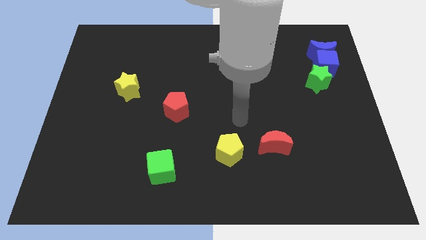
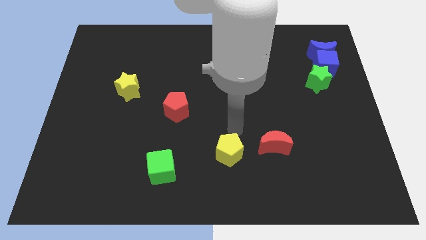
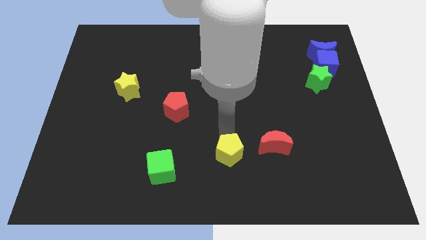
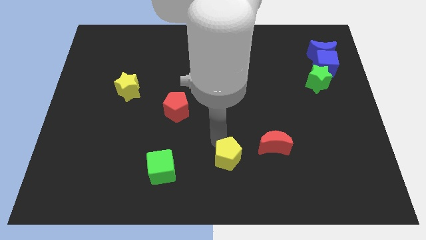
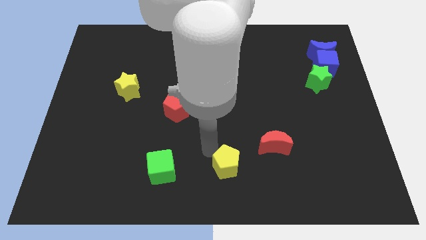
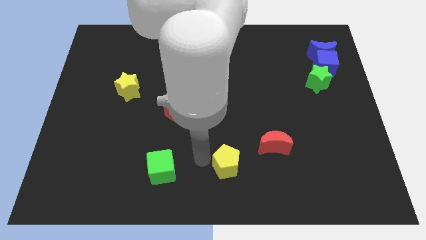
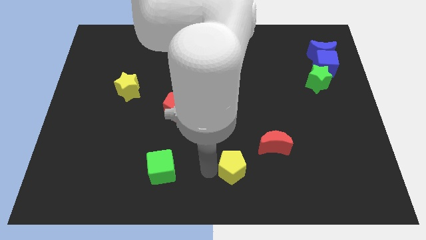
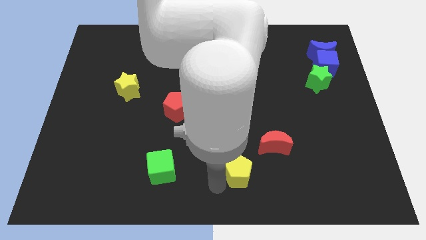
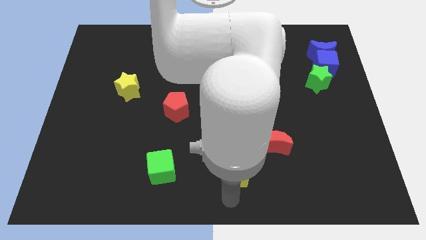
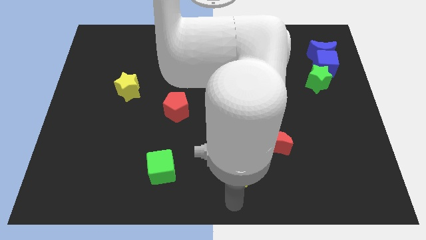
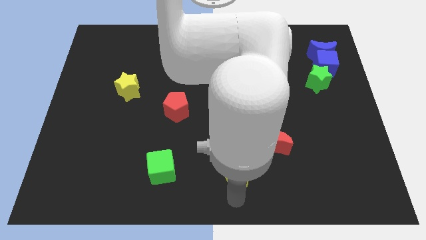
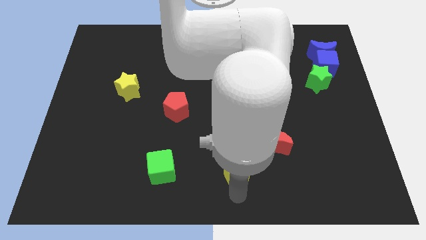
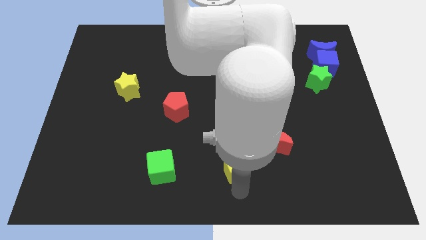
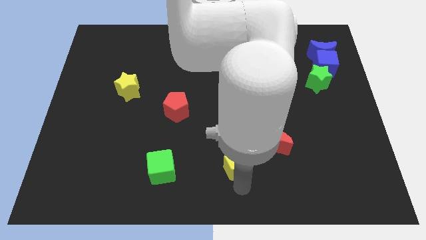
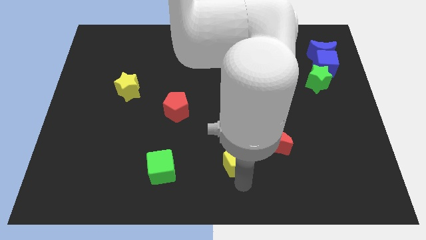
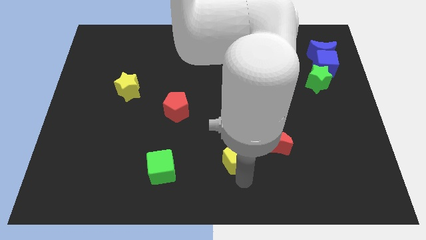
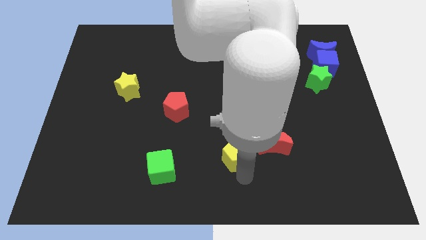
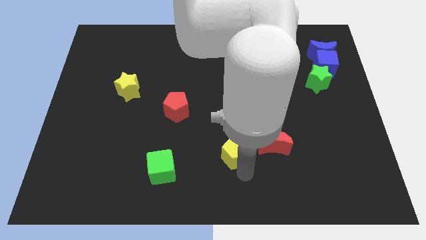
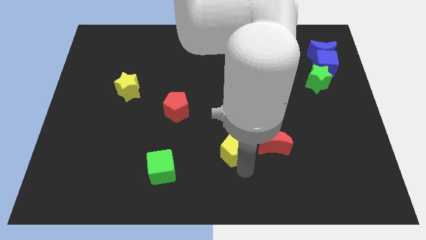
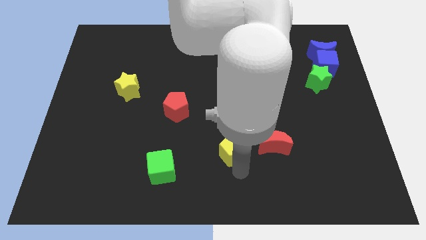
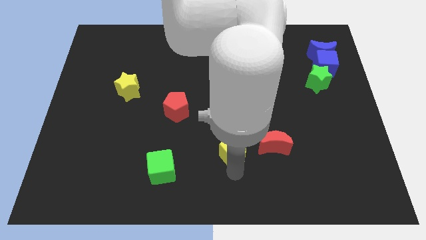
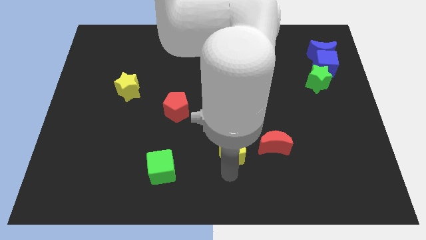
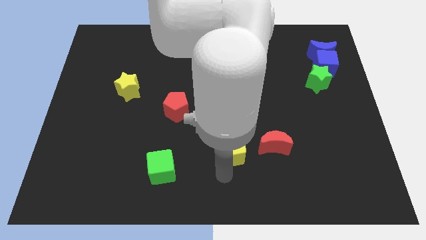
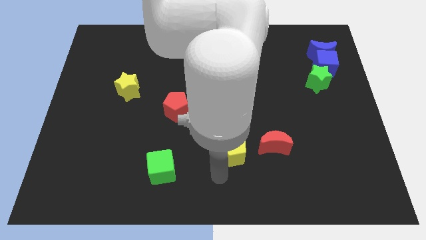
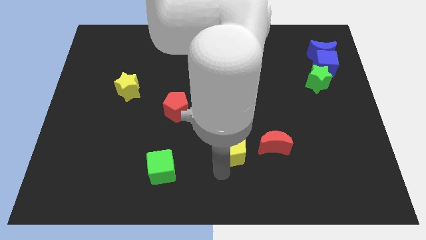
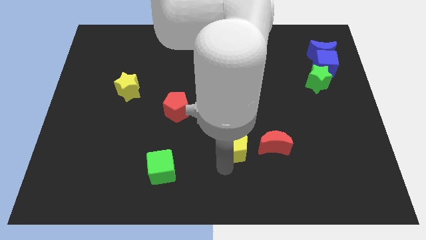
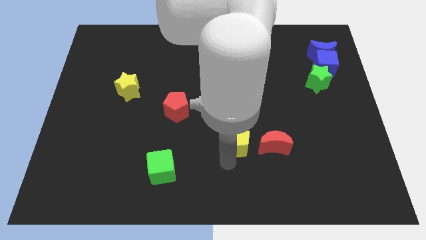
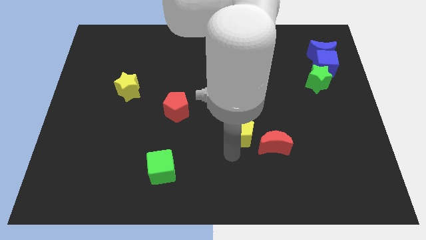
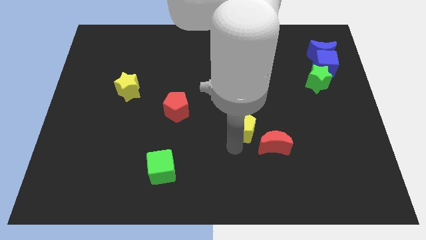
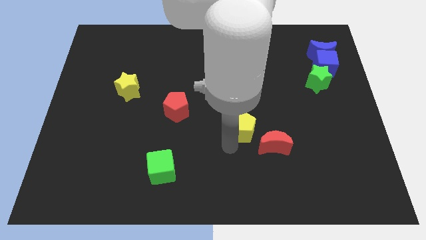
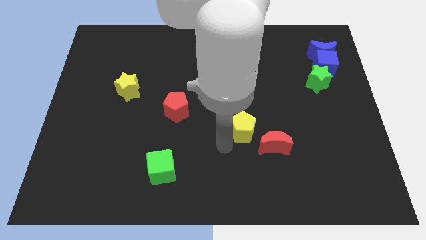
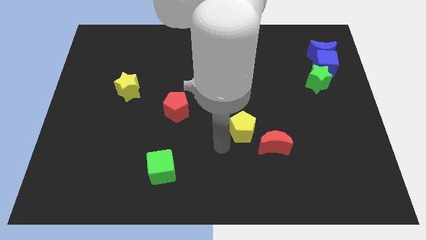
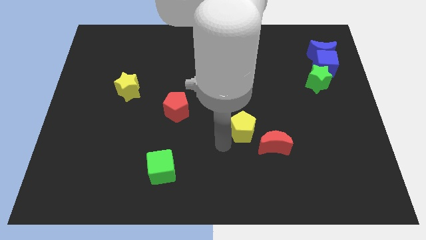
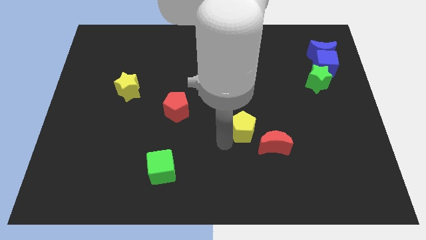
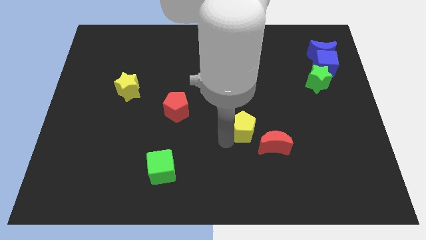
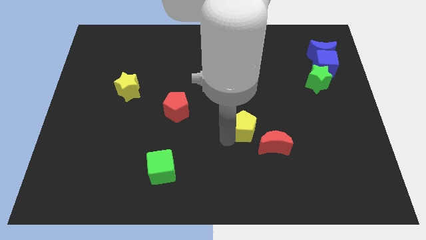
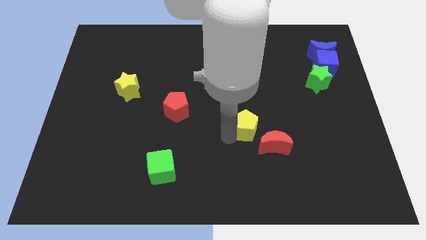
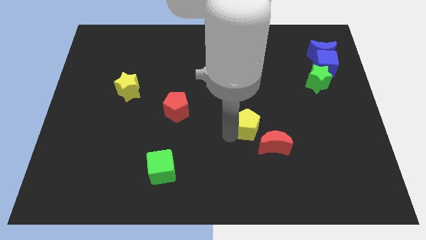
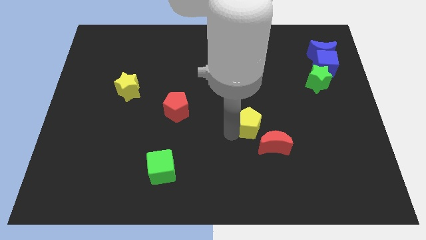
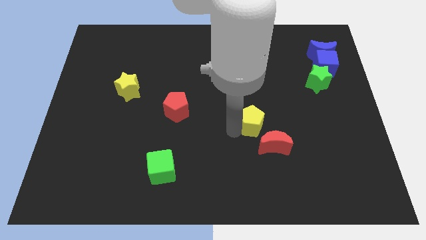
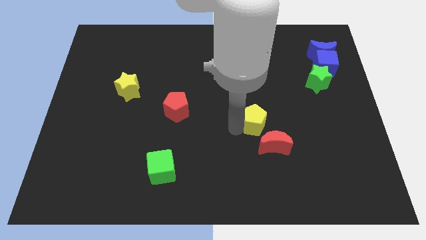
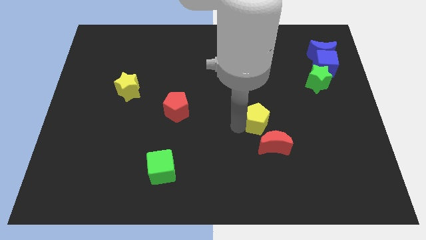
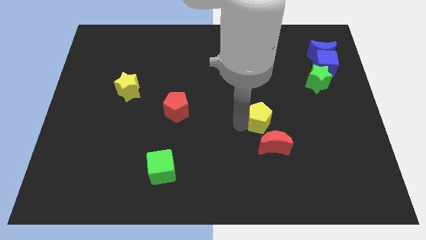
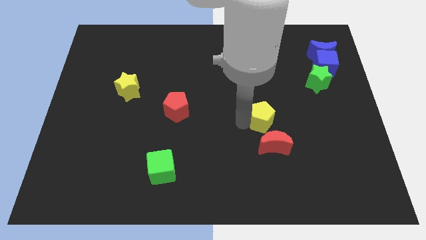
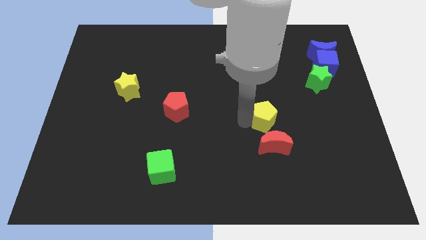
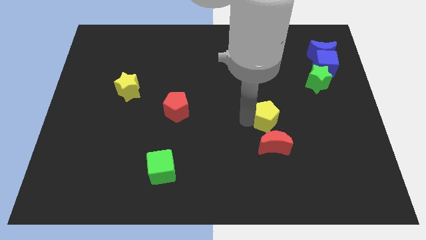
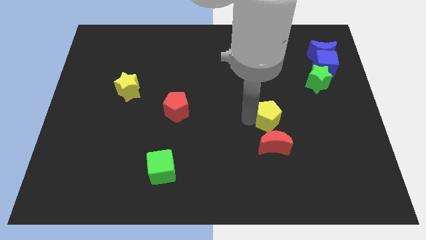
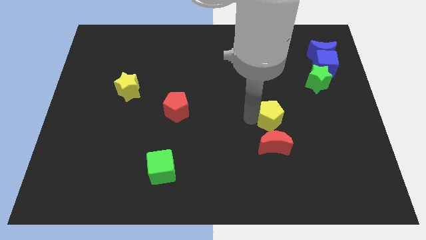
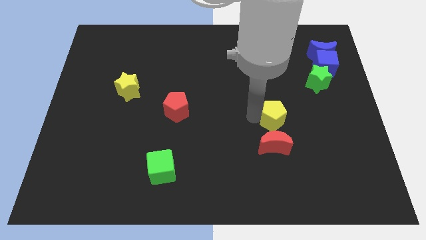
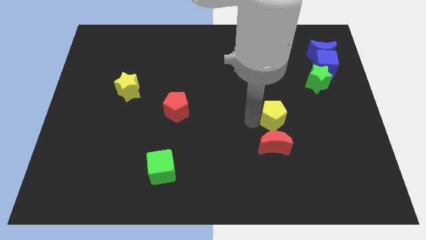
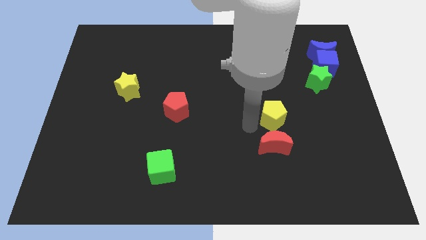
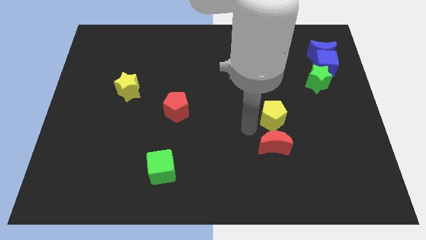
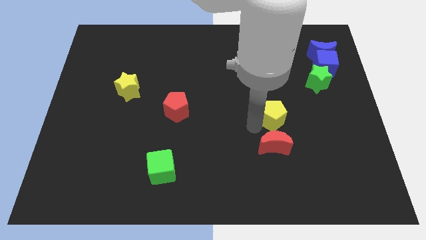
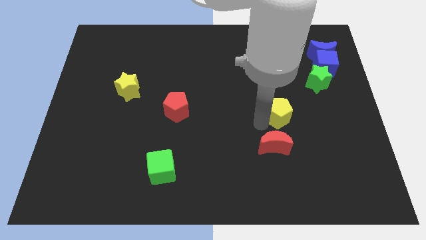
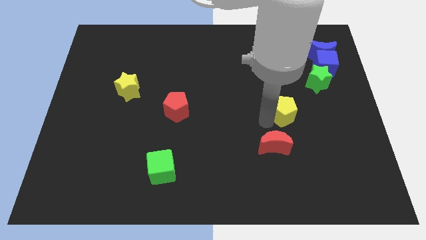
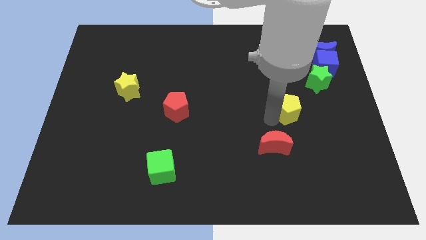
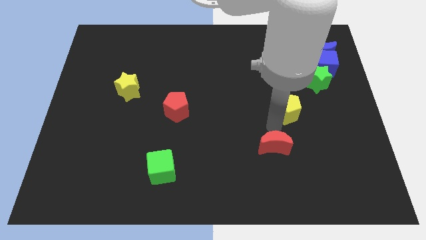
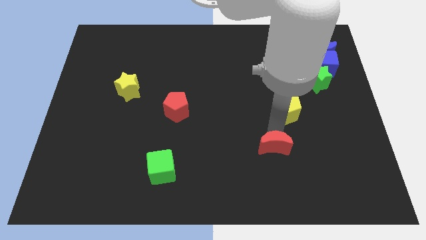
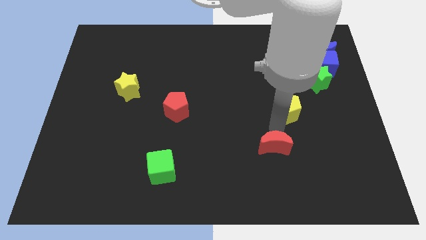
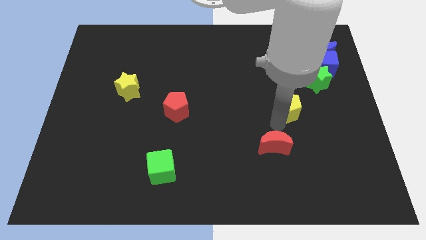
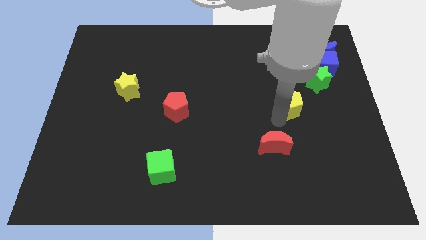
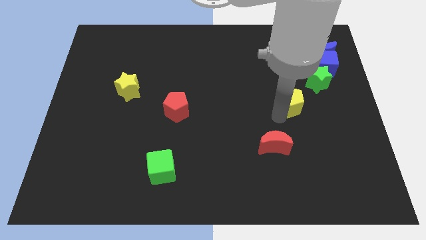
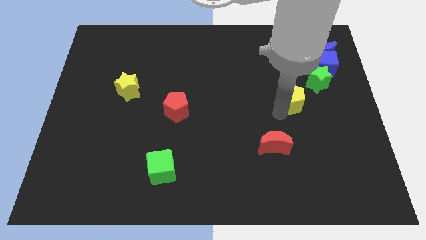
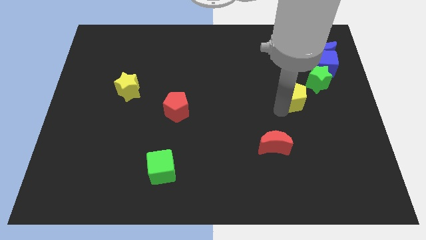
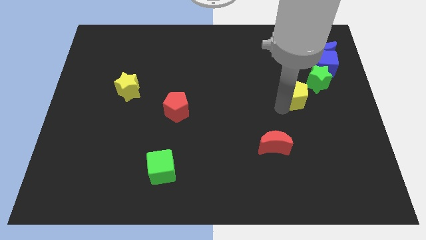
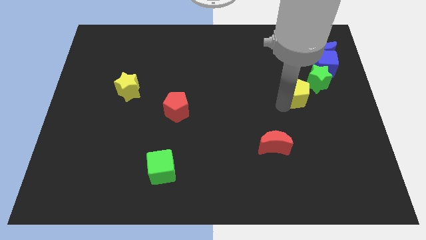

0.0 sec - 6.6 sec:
put the yellow pentagon to the bottom left of the blue cube
